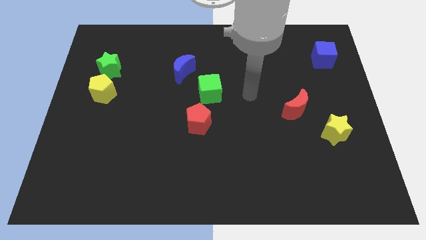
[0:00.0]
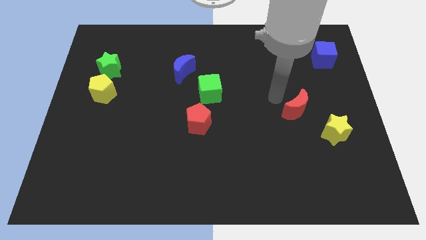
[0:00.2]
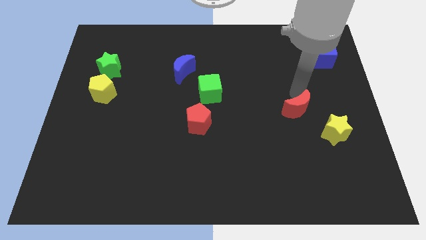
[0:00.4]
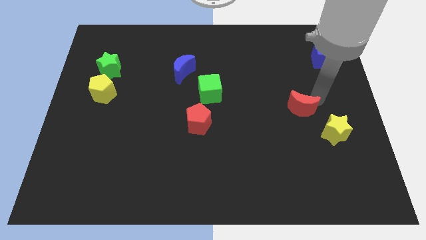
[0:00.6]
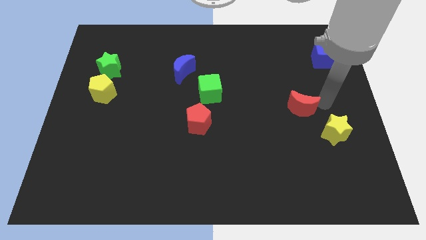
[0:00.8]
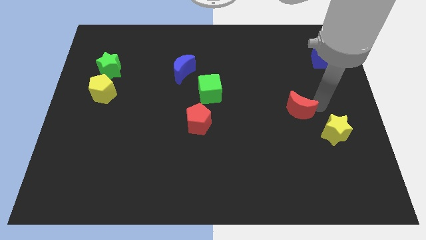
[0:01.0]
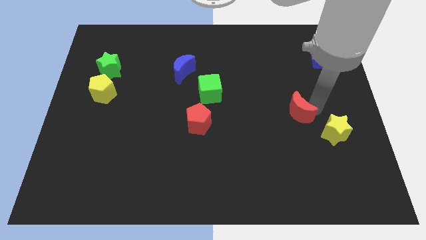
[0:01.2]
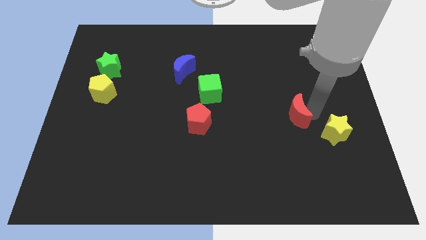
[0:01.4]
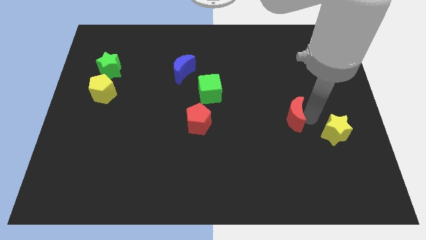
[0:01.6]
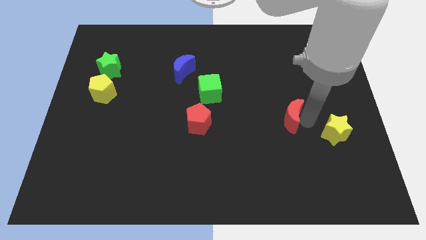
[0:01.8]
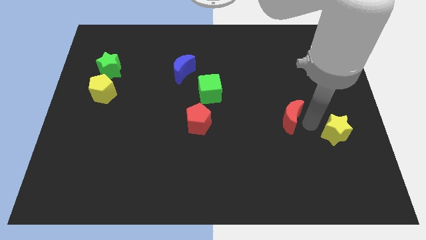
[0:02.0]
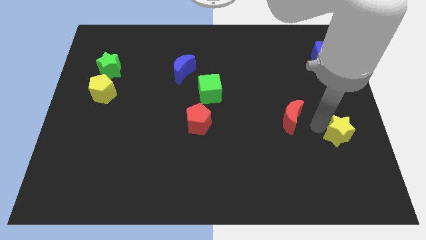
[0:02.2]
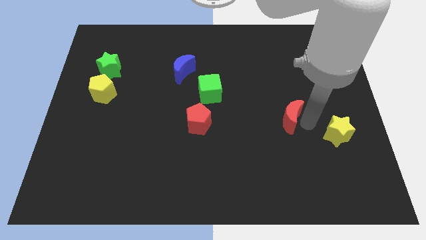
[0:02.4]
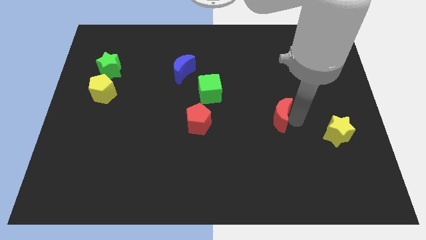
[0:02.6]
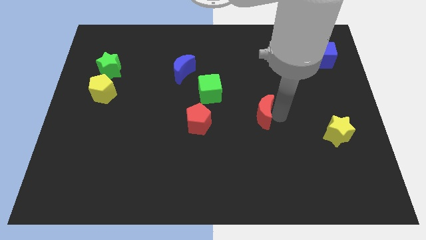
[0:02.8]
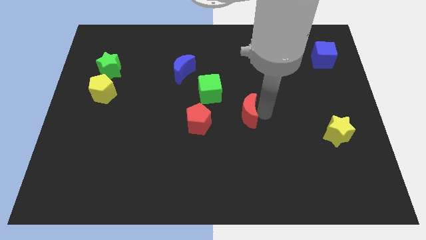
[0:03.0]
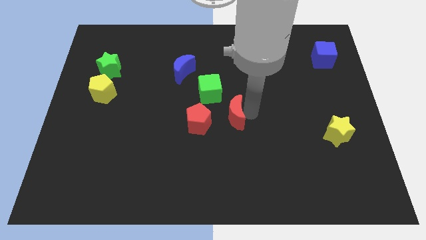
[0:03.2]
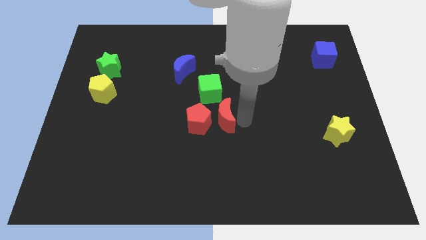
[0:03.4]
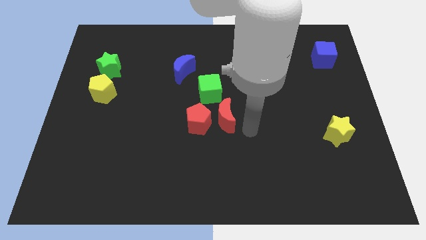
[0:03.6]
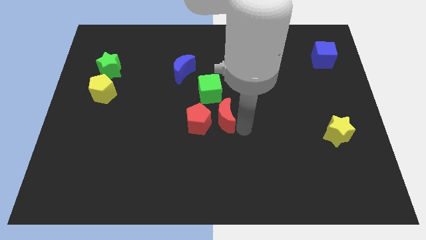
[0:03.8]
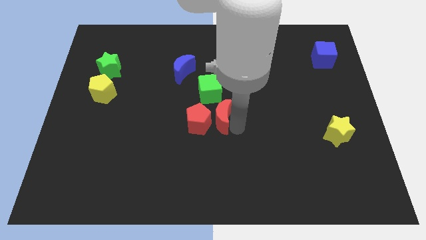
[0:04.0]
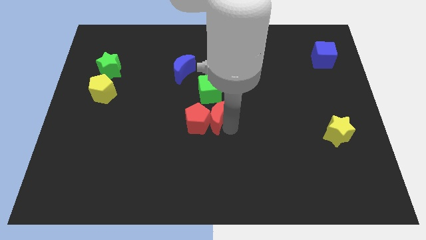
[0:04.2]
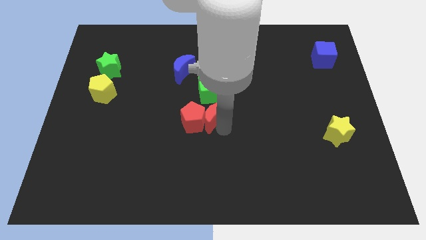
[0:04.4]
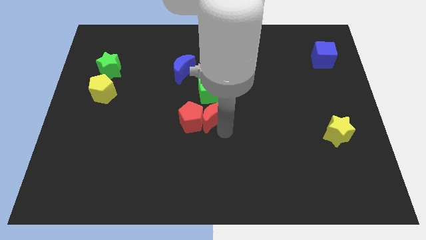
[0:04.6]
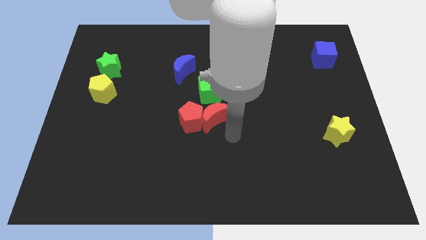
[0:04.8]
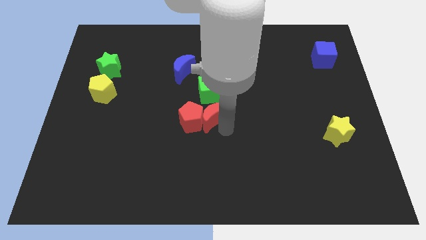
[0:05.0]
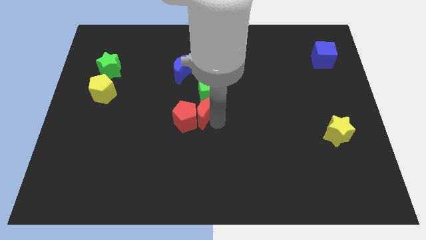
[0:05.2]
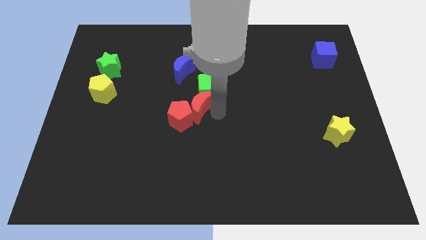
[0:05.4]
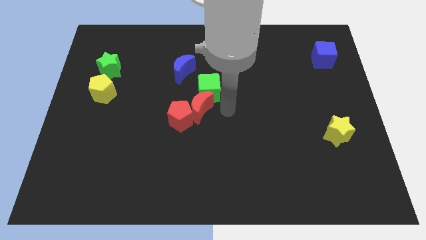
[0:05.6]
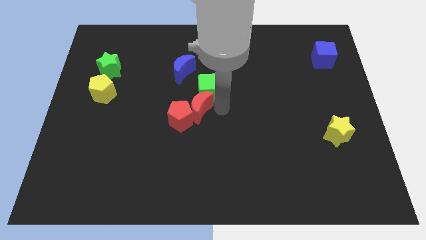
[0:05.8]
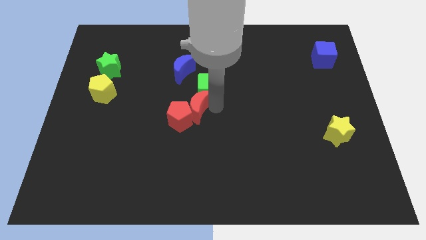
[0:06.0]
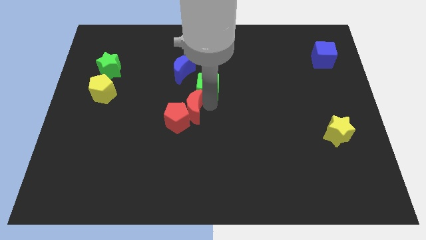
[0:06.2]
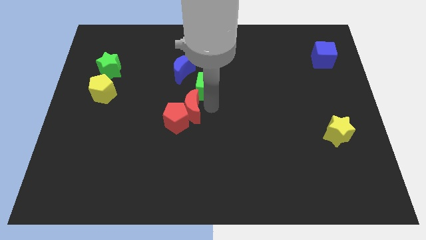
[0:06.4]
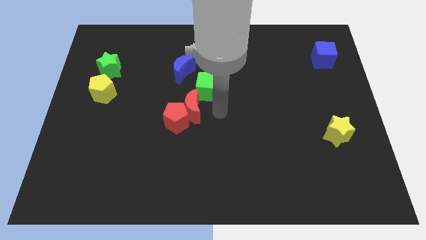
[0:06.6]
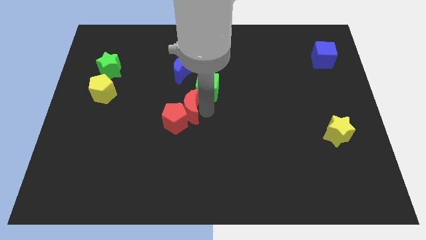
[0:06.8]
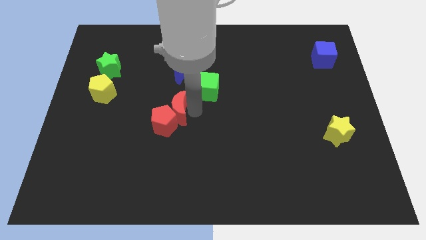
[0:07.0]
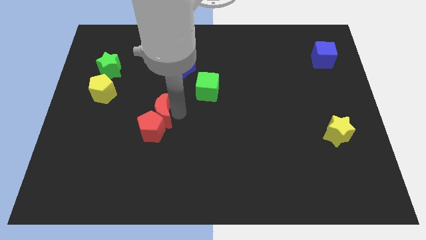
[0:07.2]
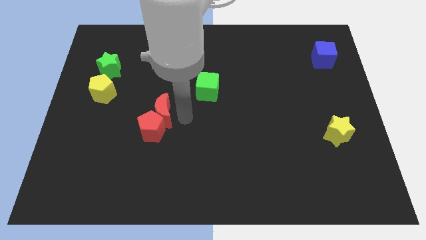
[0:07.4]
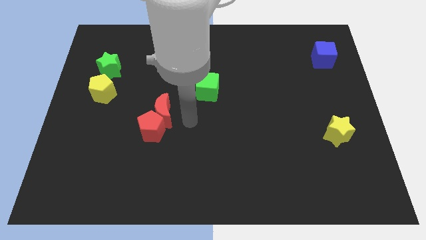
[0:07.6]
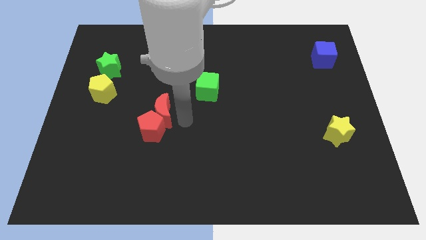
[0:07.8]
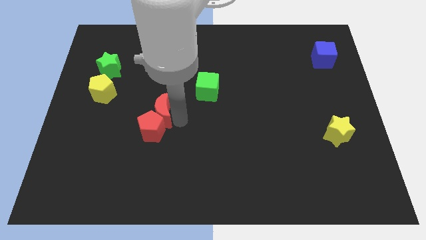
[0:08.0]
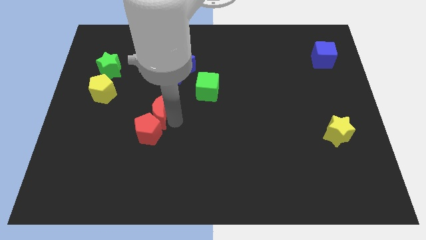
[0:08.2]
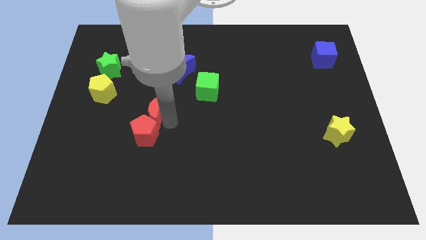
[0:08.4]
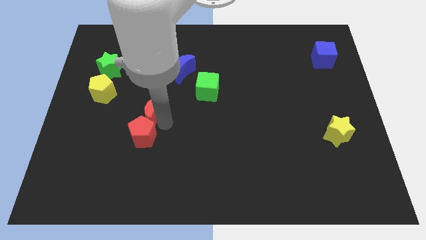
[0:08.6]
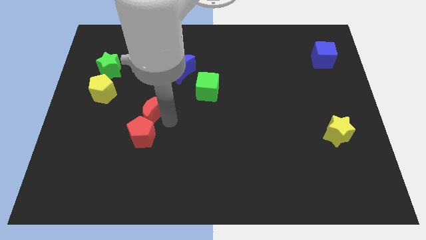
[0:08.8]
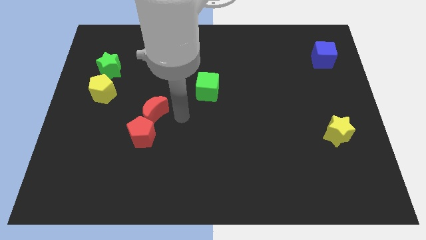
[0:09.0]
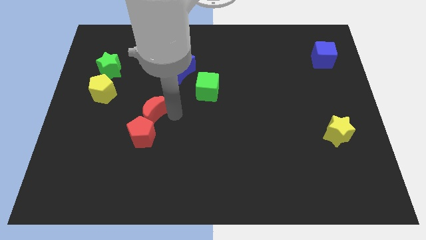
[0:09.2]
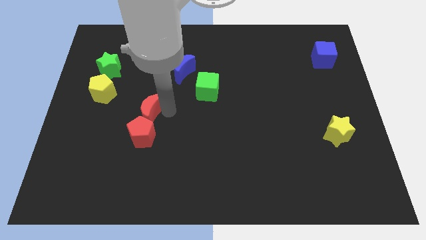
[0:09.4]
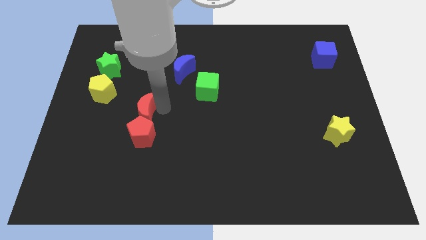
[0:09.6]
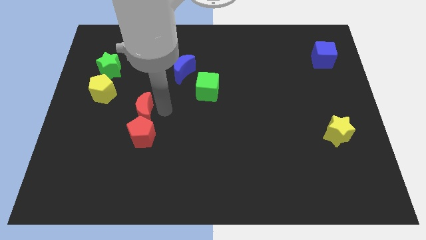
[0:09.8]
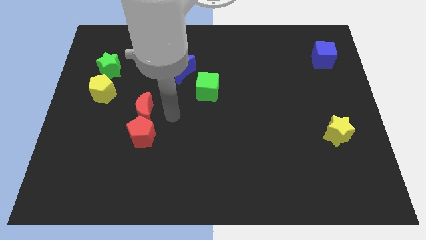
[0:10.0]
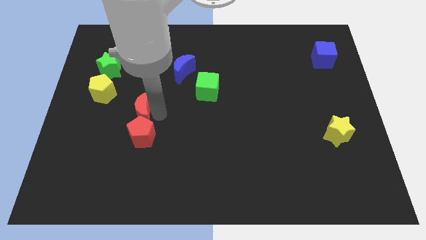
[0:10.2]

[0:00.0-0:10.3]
move the red moon to the bottom right of the yellow pentagon

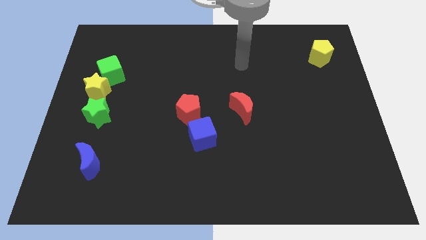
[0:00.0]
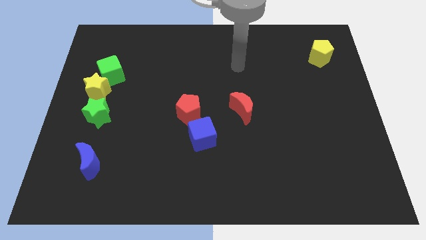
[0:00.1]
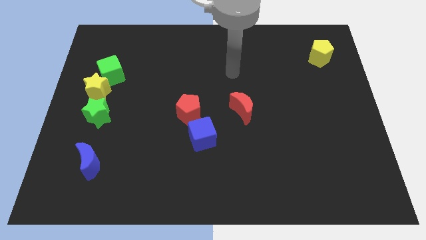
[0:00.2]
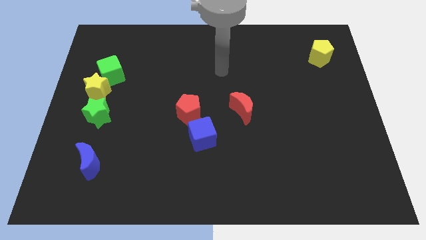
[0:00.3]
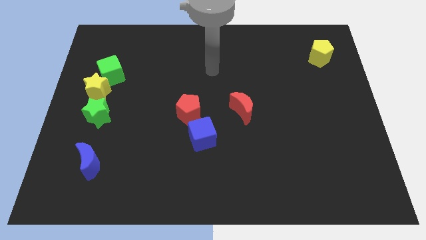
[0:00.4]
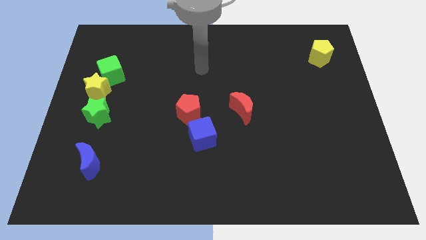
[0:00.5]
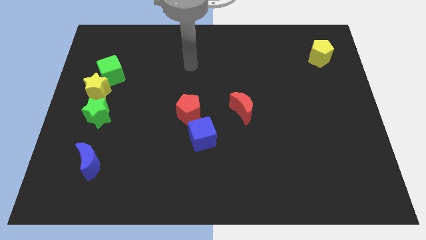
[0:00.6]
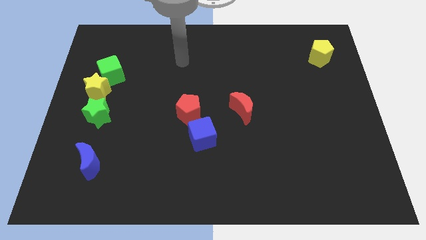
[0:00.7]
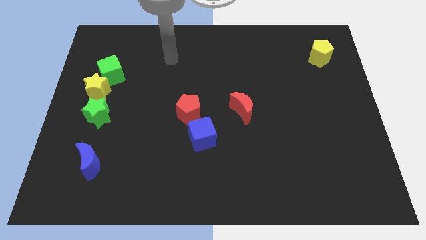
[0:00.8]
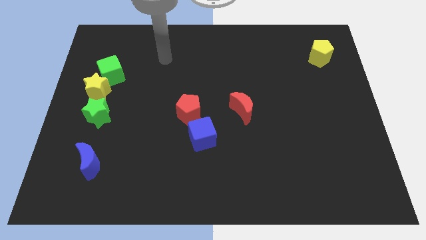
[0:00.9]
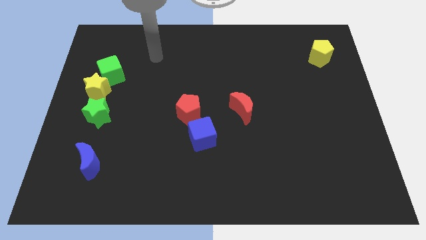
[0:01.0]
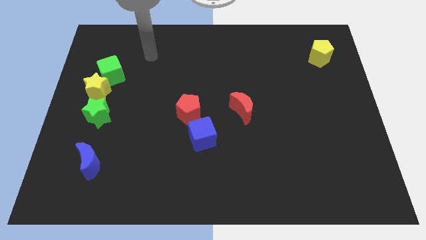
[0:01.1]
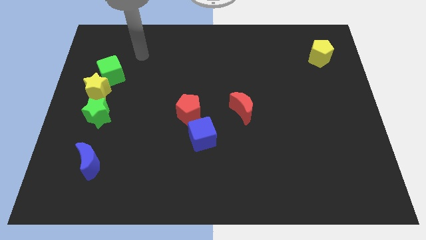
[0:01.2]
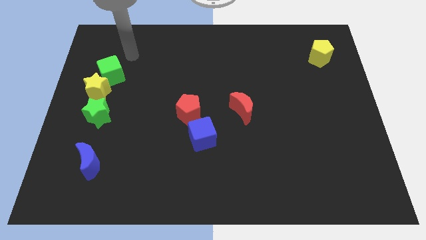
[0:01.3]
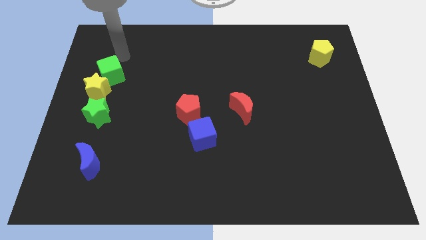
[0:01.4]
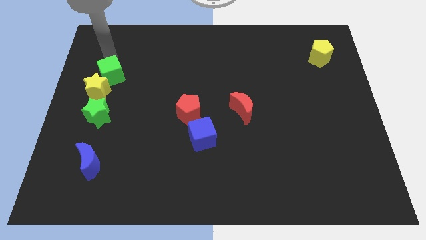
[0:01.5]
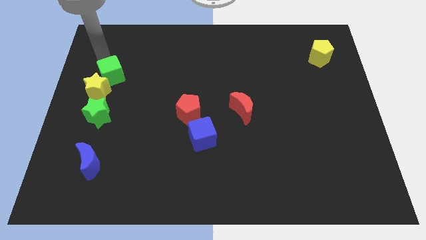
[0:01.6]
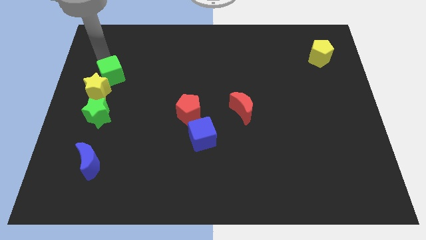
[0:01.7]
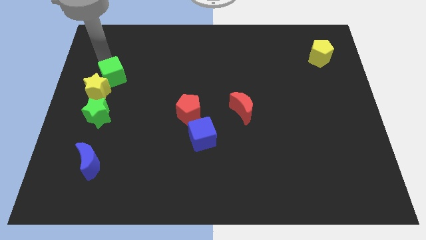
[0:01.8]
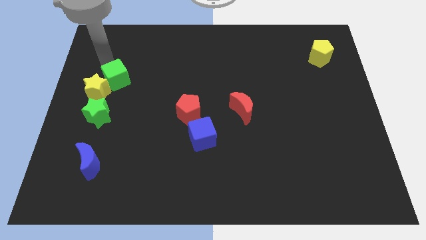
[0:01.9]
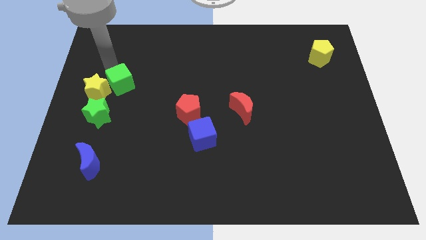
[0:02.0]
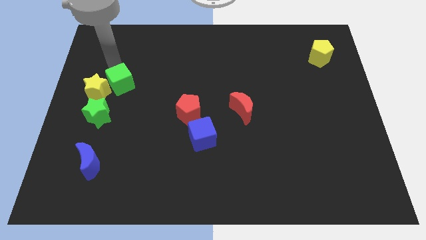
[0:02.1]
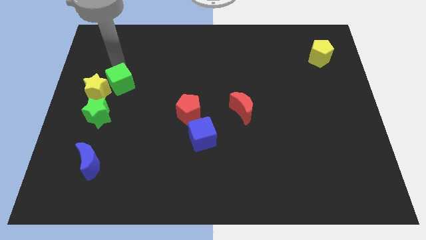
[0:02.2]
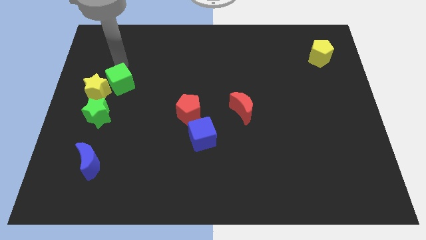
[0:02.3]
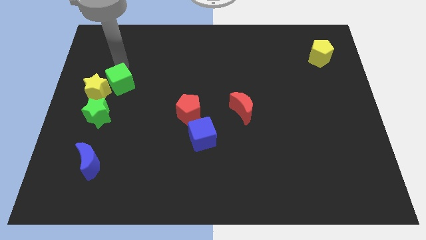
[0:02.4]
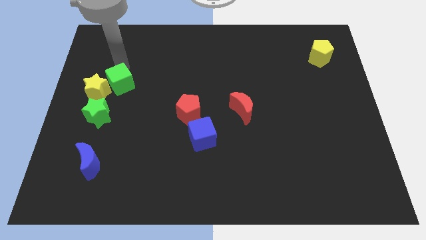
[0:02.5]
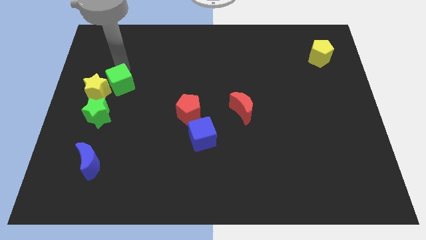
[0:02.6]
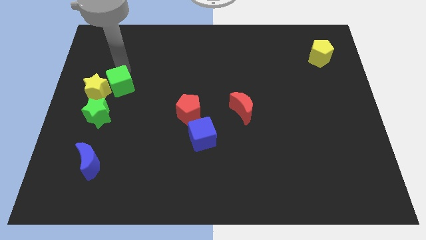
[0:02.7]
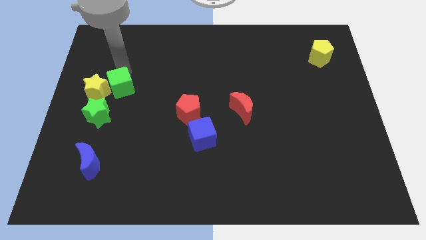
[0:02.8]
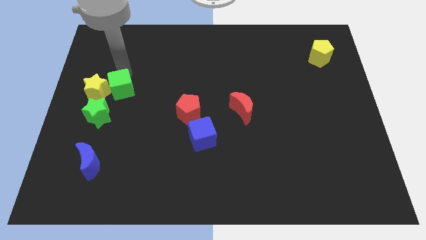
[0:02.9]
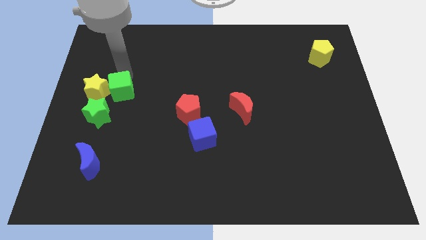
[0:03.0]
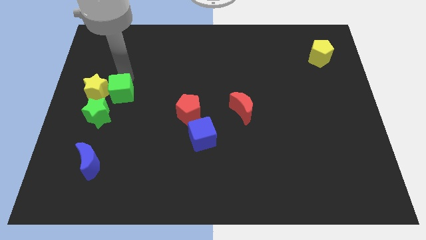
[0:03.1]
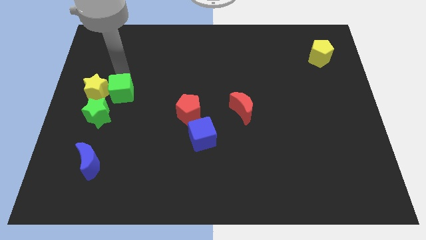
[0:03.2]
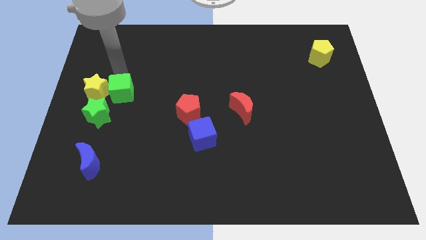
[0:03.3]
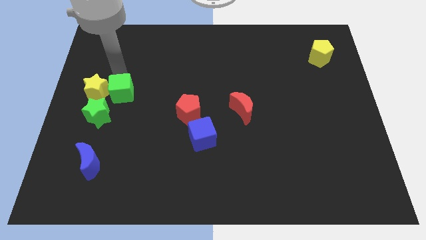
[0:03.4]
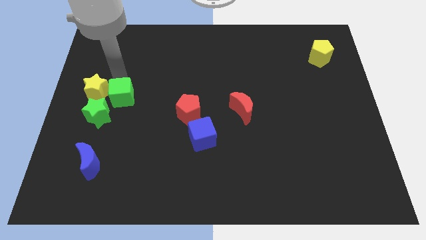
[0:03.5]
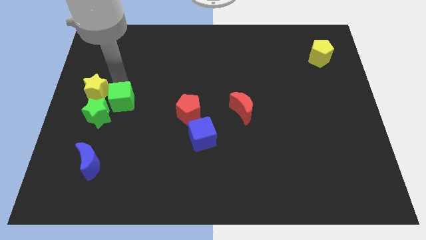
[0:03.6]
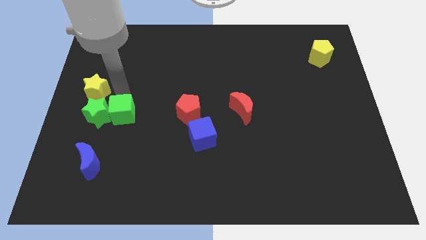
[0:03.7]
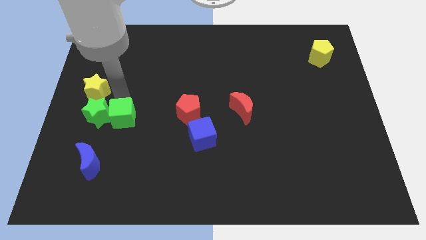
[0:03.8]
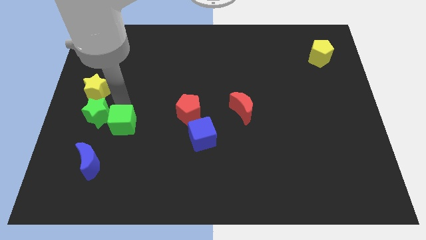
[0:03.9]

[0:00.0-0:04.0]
move the green cube to the top right side of the blue moon
